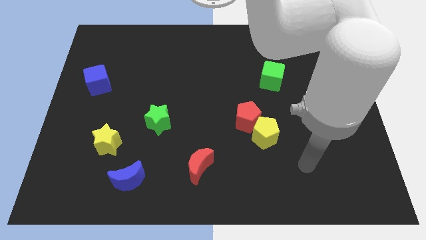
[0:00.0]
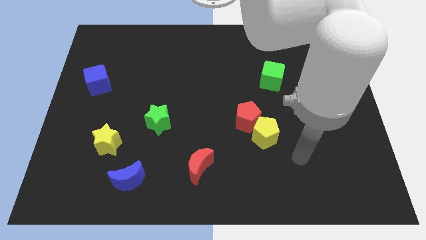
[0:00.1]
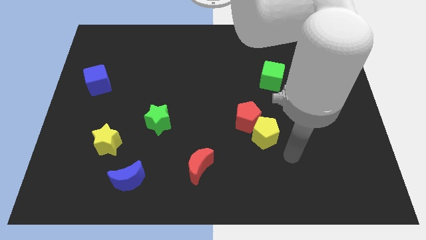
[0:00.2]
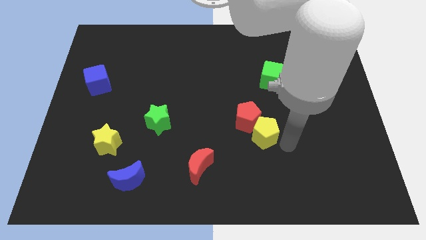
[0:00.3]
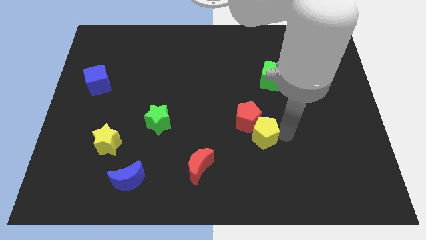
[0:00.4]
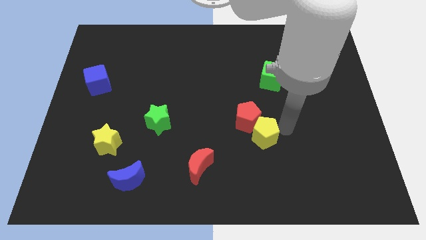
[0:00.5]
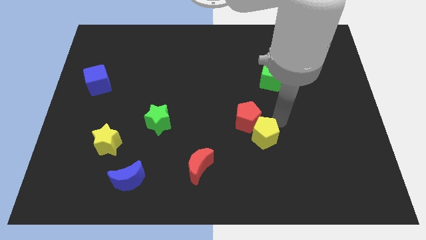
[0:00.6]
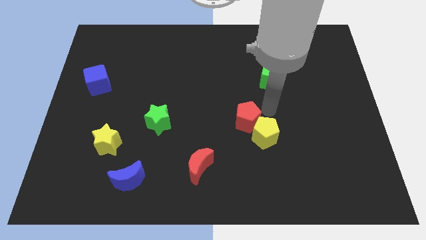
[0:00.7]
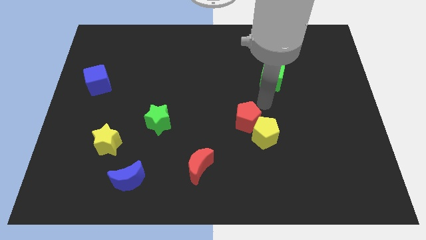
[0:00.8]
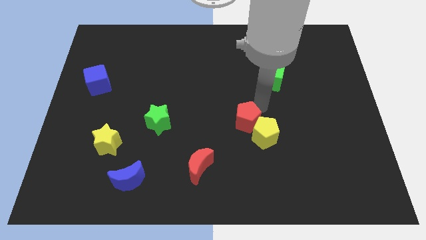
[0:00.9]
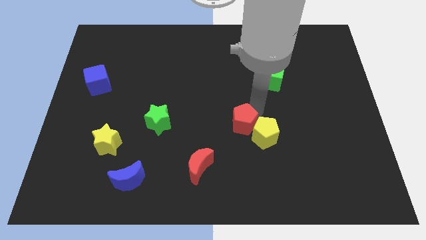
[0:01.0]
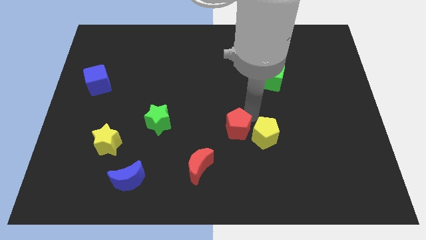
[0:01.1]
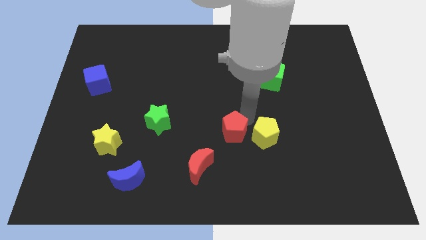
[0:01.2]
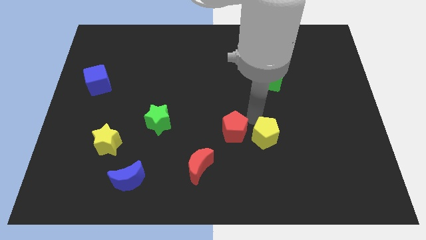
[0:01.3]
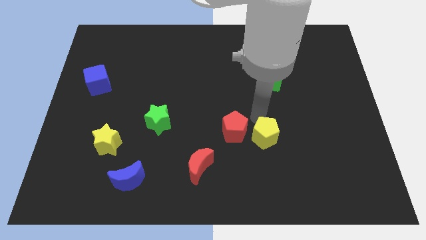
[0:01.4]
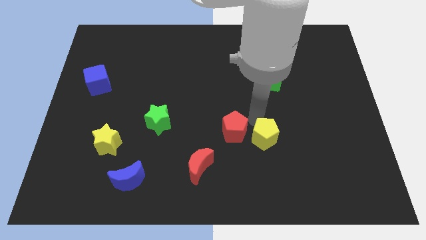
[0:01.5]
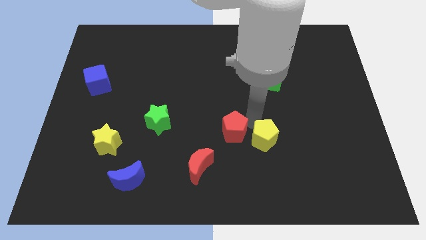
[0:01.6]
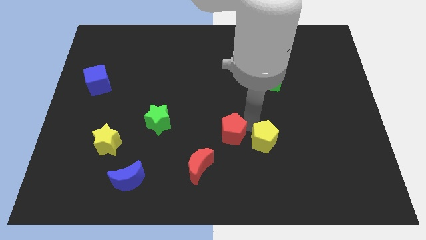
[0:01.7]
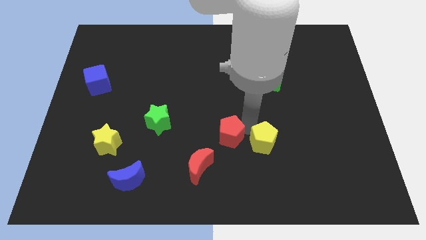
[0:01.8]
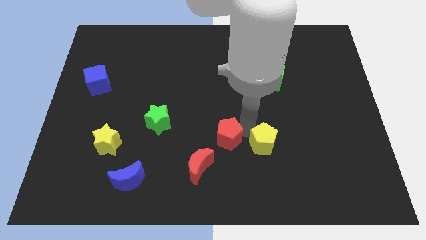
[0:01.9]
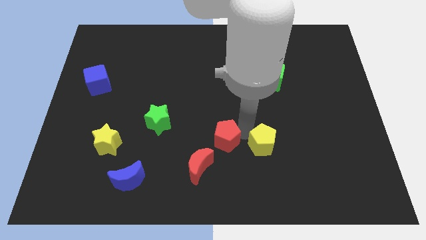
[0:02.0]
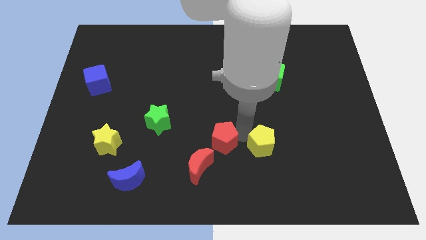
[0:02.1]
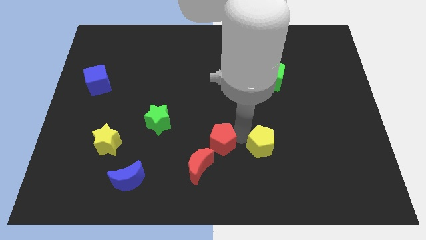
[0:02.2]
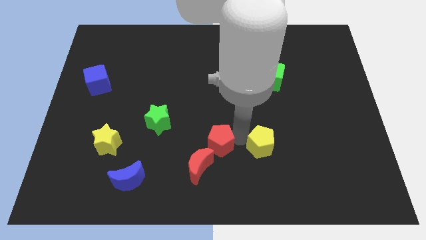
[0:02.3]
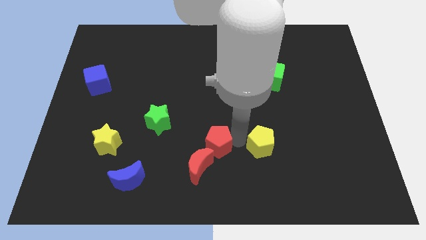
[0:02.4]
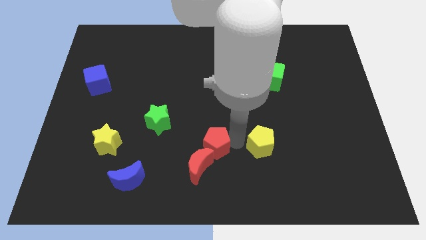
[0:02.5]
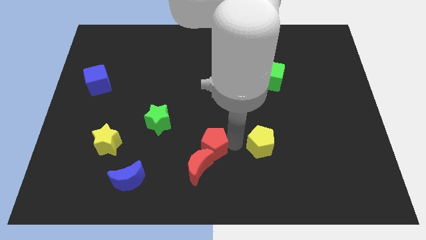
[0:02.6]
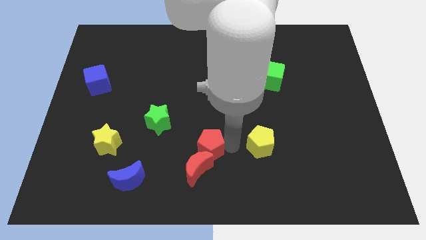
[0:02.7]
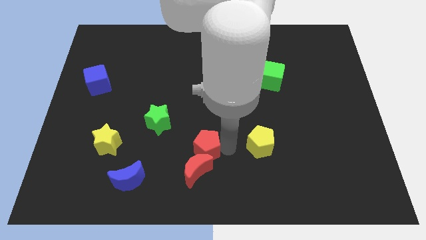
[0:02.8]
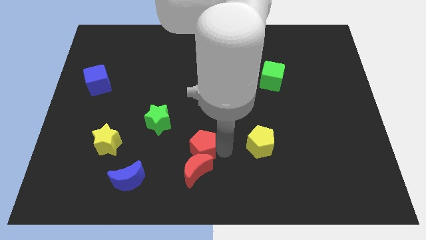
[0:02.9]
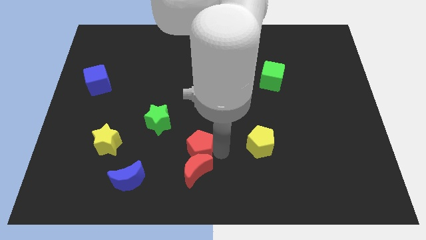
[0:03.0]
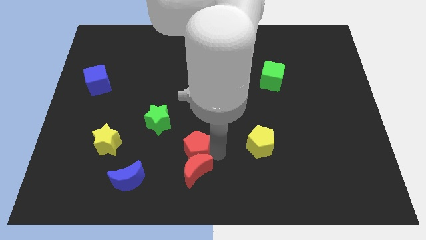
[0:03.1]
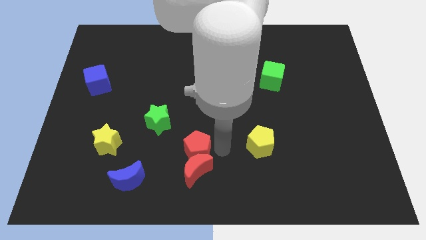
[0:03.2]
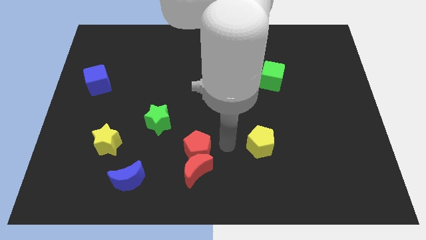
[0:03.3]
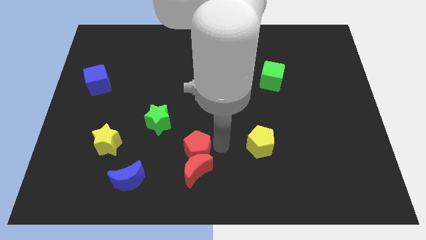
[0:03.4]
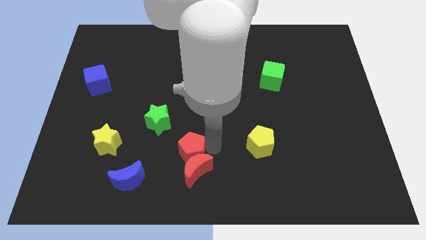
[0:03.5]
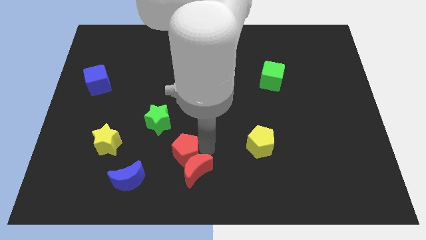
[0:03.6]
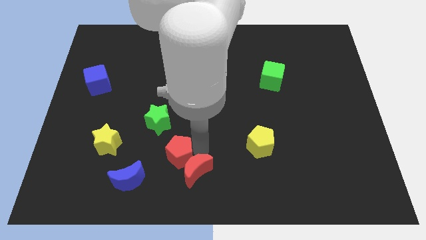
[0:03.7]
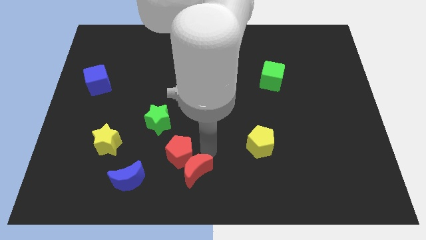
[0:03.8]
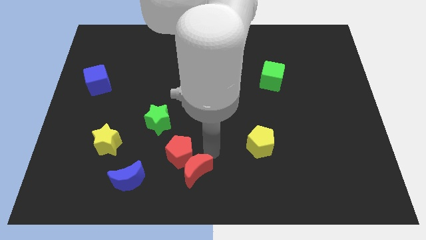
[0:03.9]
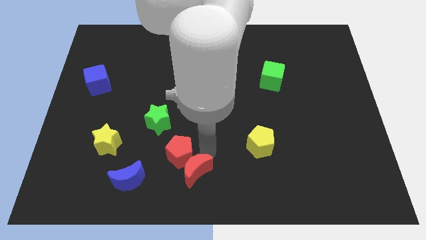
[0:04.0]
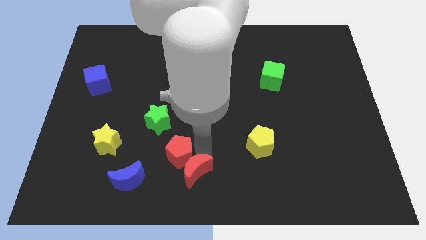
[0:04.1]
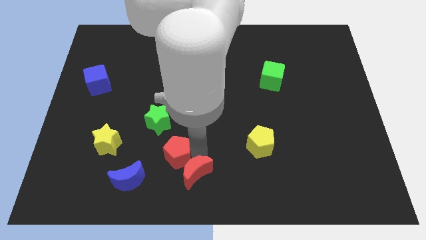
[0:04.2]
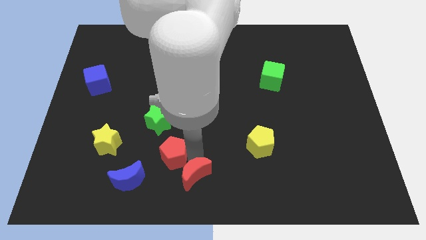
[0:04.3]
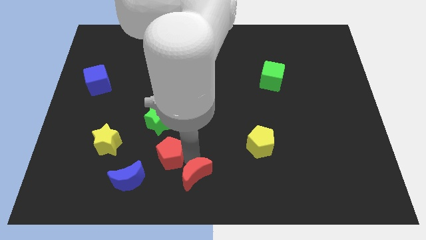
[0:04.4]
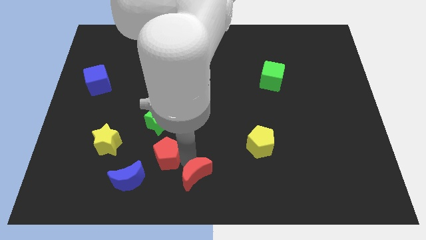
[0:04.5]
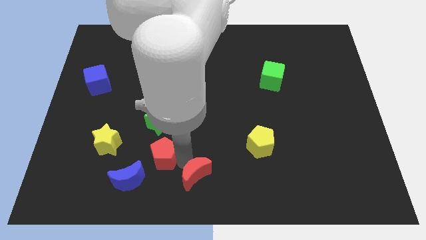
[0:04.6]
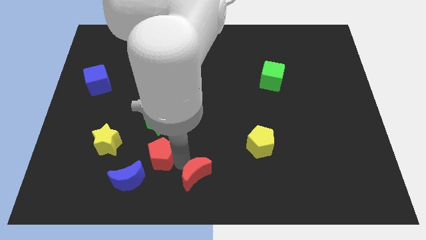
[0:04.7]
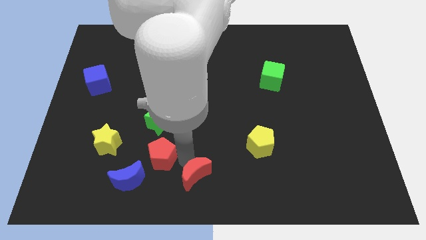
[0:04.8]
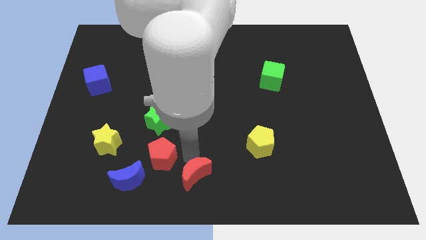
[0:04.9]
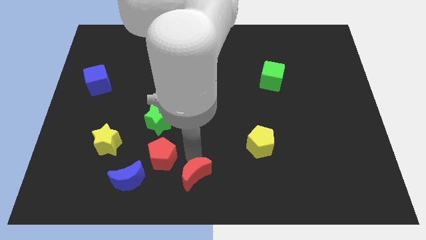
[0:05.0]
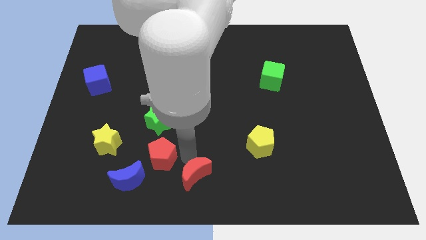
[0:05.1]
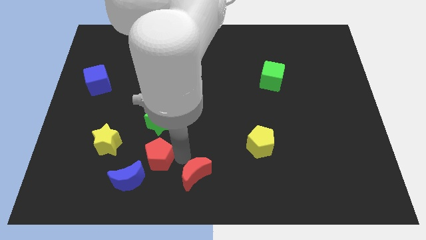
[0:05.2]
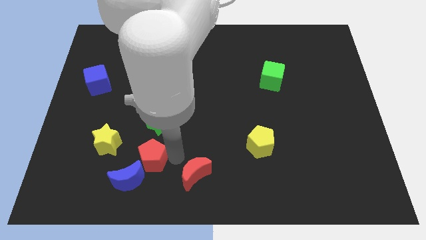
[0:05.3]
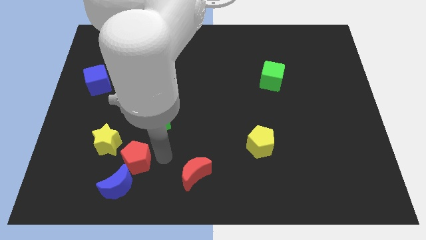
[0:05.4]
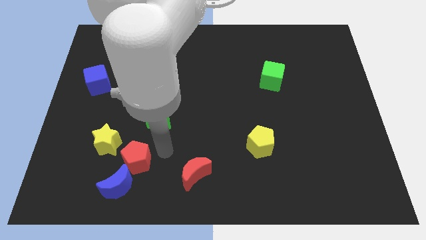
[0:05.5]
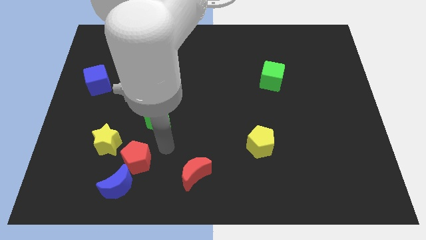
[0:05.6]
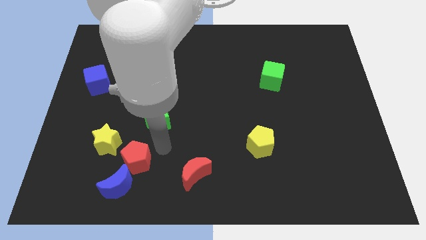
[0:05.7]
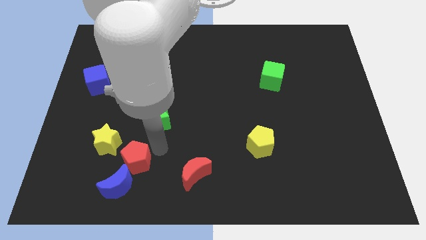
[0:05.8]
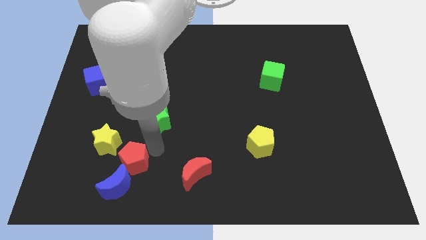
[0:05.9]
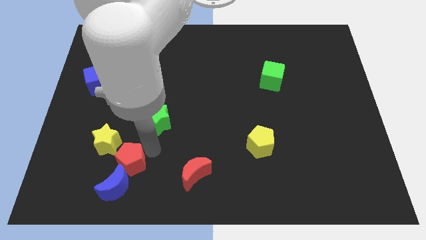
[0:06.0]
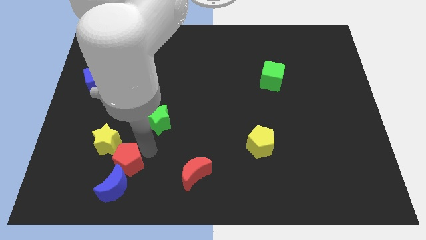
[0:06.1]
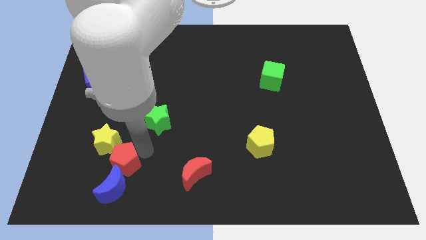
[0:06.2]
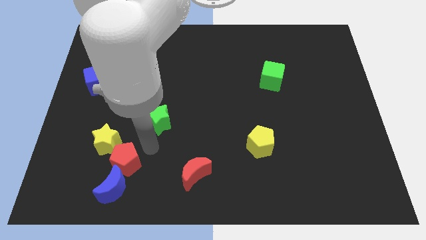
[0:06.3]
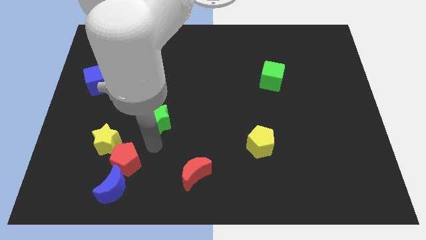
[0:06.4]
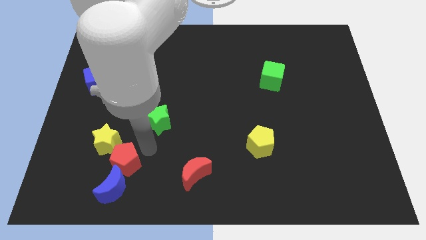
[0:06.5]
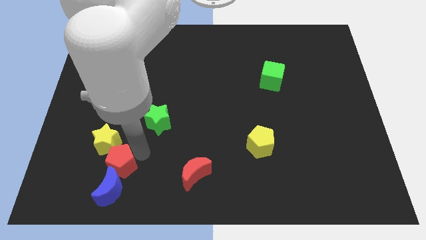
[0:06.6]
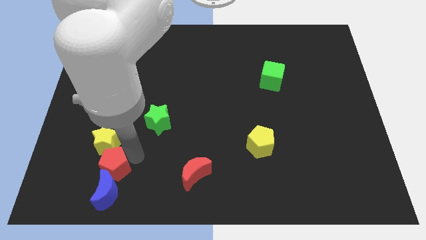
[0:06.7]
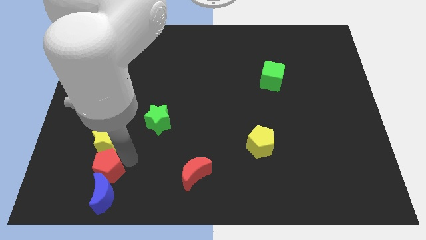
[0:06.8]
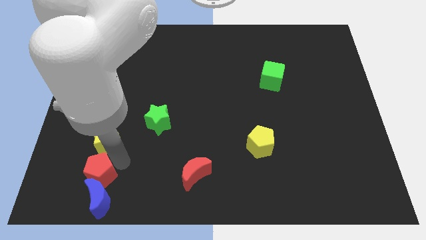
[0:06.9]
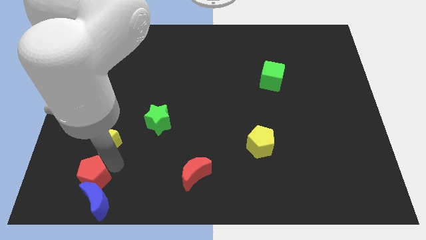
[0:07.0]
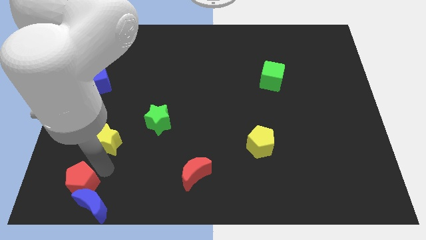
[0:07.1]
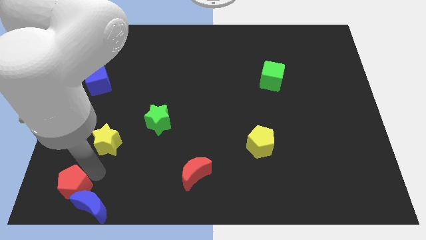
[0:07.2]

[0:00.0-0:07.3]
slide the red pentagon to the bottom left corner
